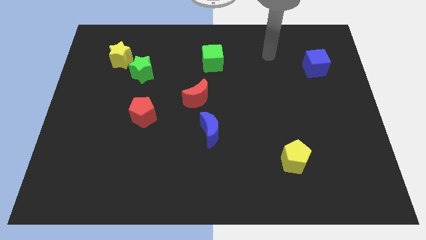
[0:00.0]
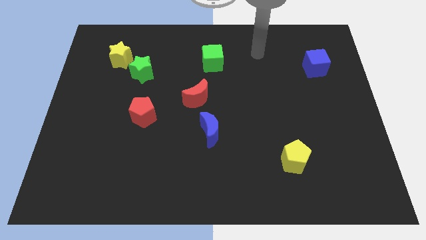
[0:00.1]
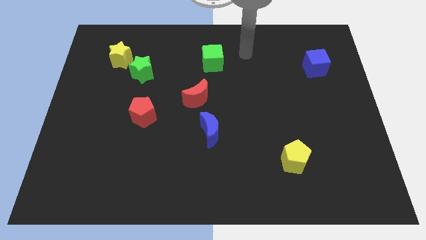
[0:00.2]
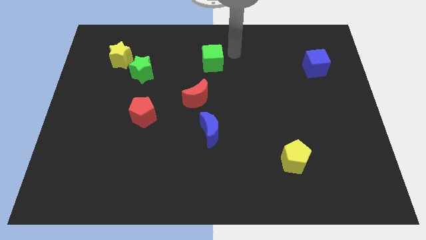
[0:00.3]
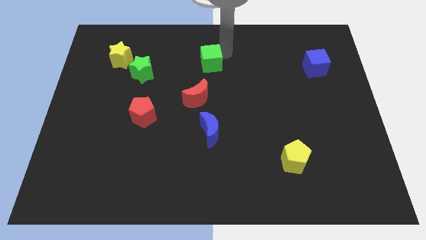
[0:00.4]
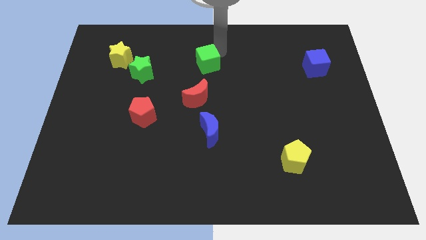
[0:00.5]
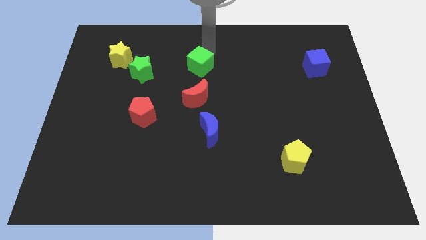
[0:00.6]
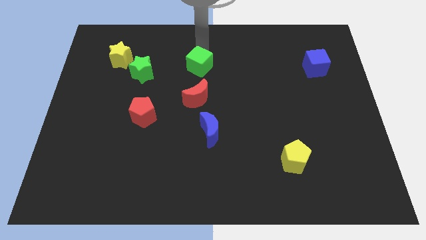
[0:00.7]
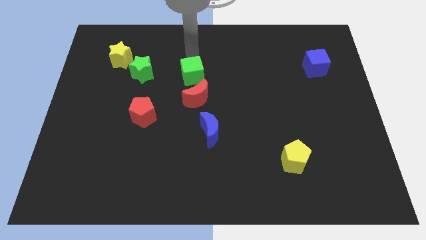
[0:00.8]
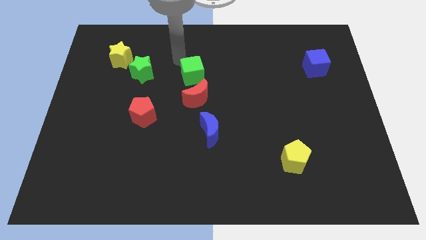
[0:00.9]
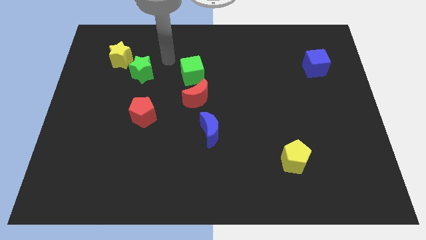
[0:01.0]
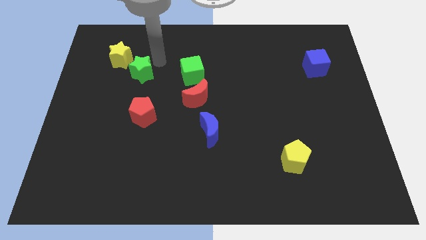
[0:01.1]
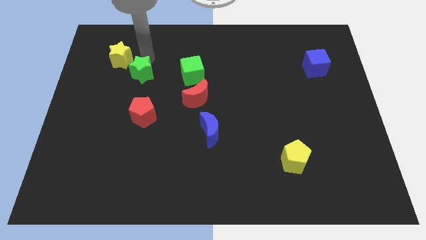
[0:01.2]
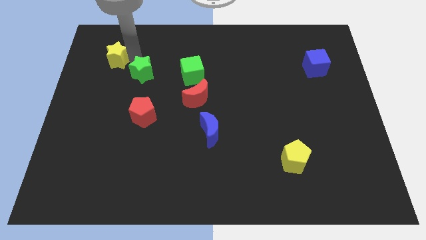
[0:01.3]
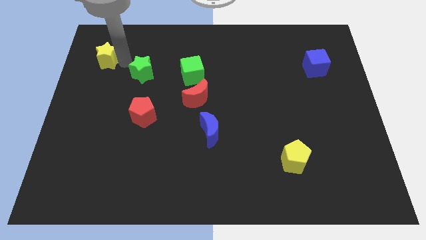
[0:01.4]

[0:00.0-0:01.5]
pull the green star apart from the yellow star

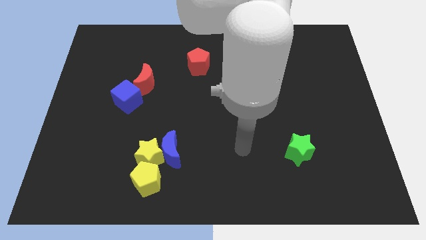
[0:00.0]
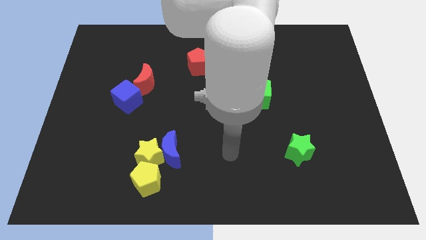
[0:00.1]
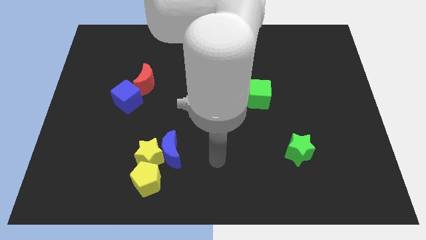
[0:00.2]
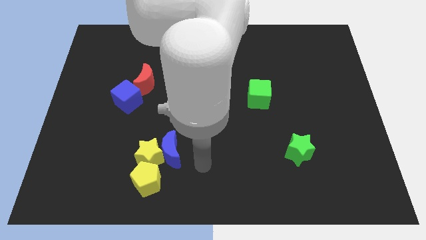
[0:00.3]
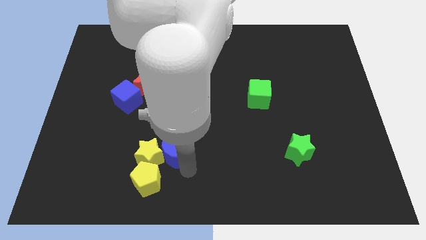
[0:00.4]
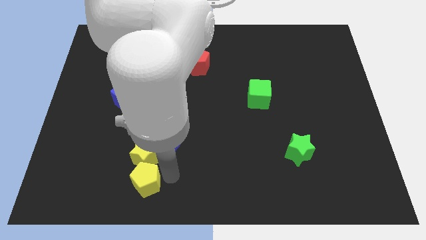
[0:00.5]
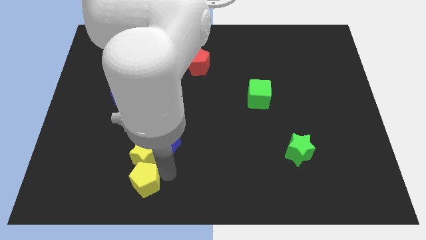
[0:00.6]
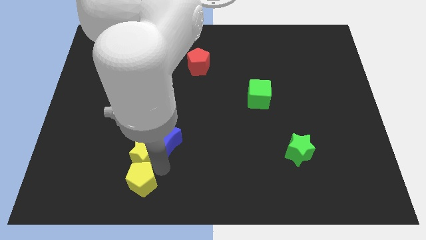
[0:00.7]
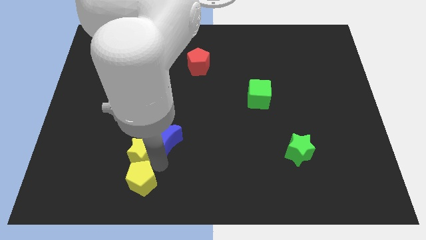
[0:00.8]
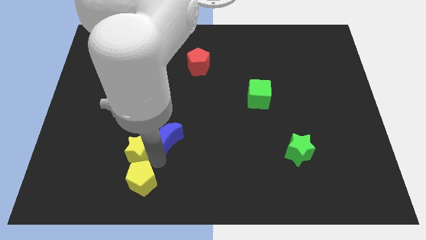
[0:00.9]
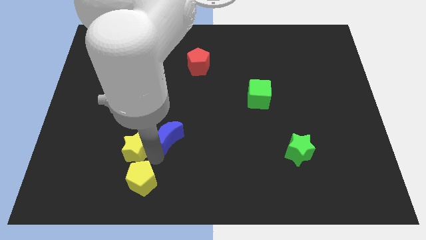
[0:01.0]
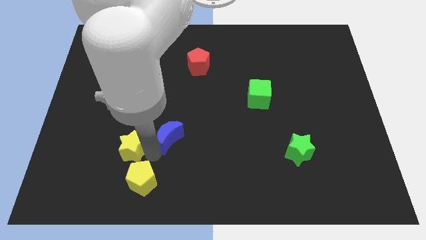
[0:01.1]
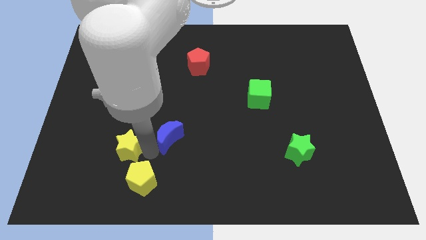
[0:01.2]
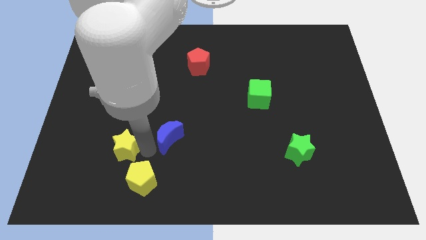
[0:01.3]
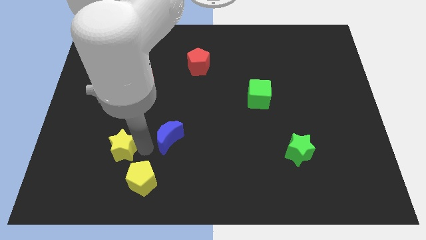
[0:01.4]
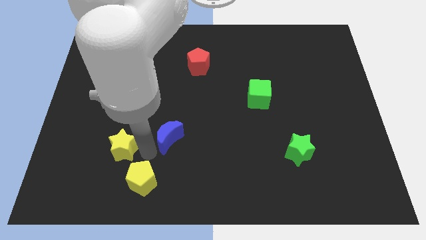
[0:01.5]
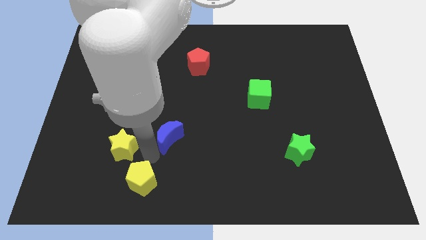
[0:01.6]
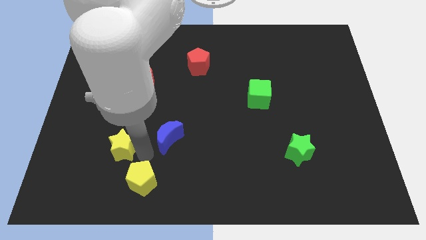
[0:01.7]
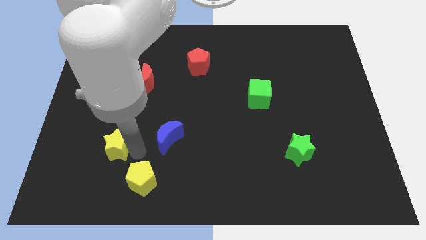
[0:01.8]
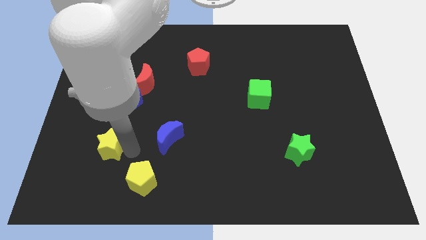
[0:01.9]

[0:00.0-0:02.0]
move the yellow star away from the blue moon and yellow pentagon

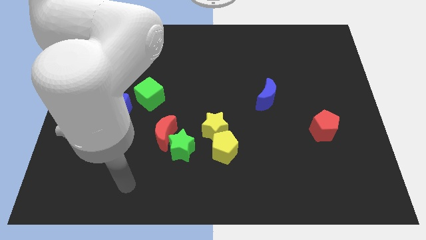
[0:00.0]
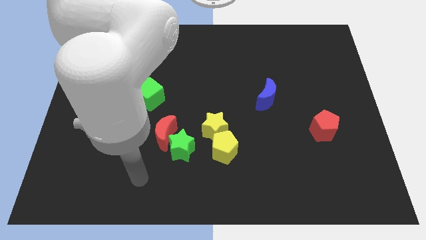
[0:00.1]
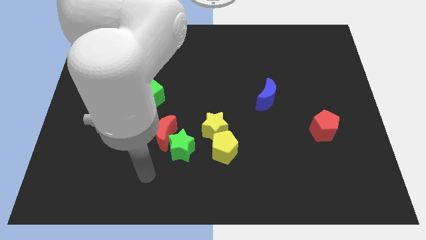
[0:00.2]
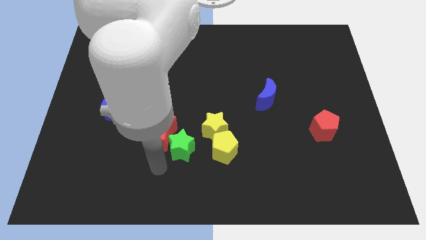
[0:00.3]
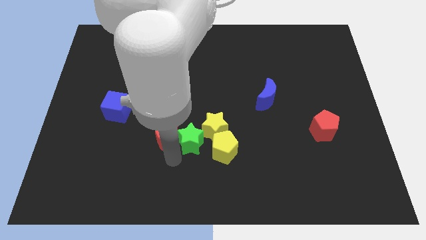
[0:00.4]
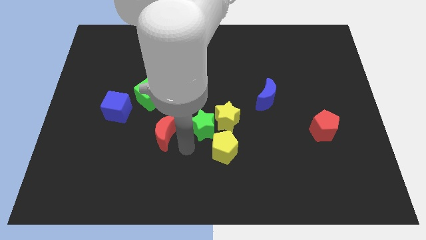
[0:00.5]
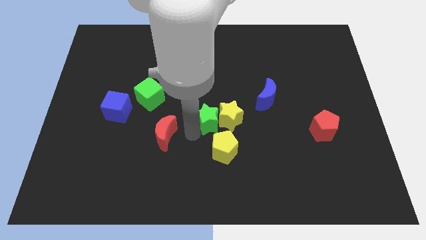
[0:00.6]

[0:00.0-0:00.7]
separate the red moon from the green star

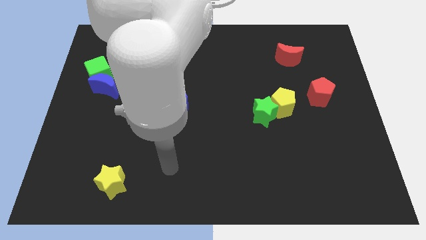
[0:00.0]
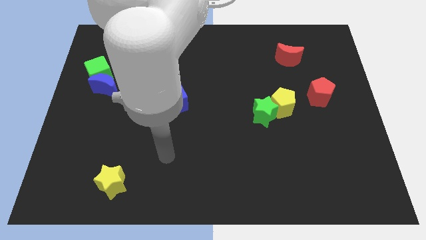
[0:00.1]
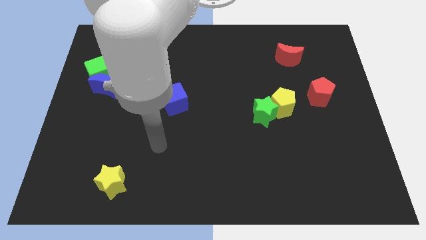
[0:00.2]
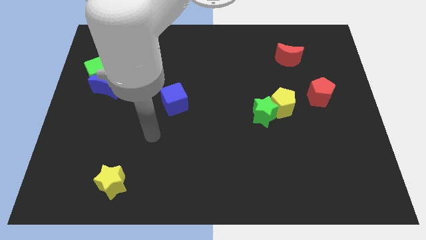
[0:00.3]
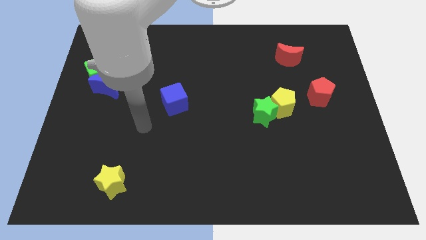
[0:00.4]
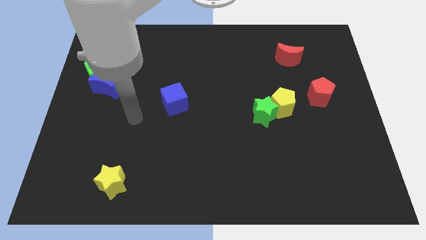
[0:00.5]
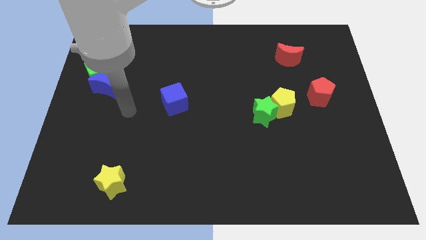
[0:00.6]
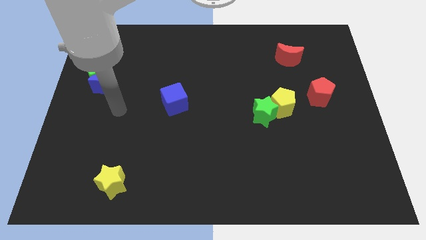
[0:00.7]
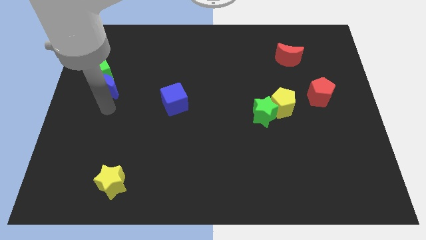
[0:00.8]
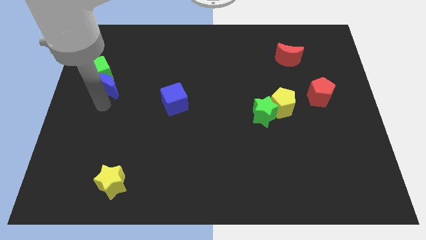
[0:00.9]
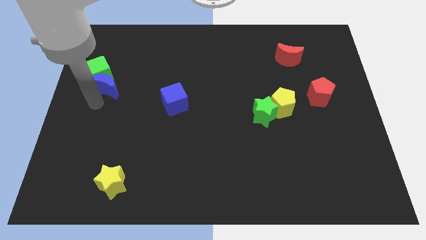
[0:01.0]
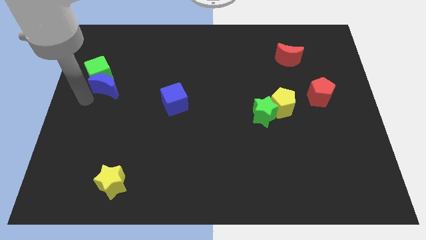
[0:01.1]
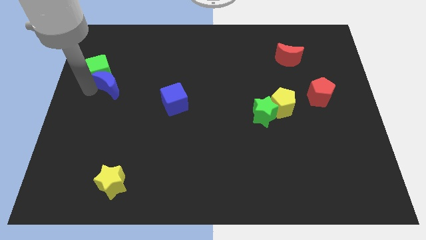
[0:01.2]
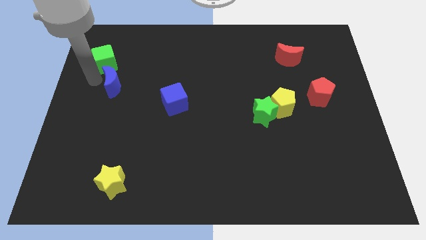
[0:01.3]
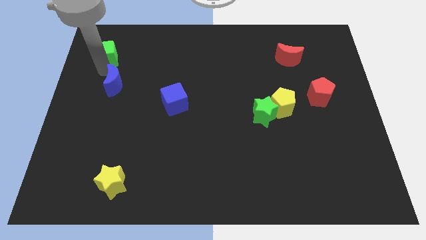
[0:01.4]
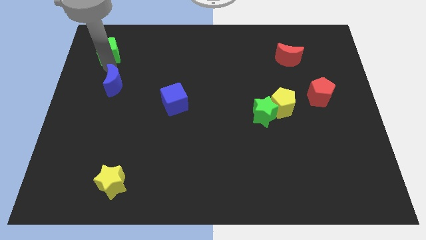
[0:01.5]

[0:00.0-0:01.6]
move the blue moon away from the green cube

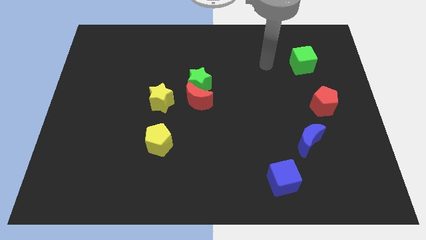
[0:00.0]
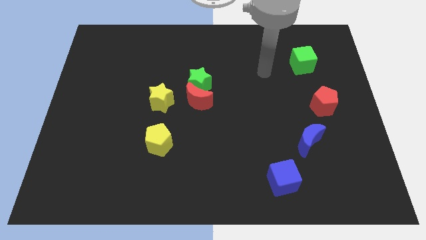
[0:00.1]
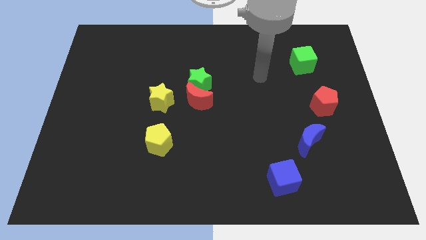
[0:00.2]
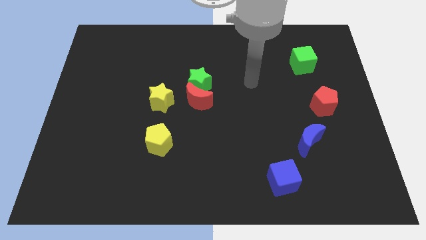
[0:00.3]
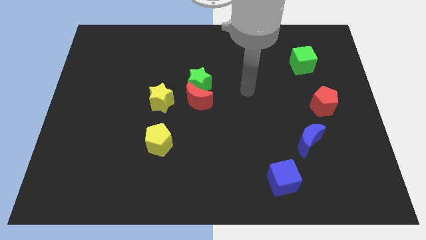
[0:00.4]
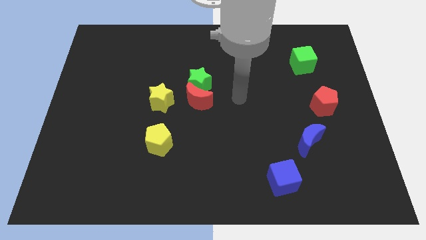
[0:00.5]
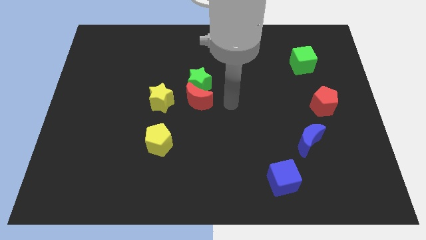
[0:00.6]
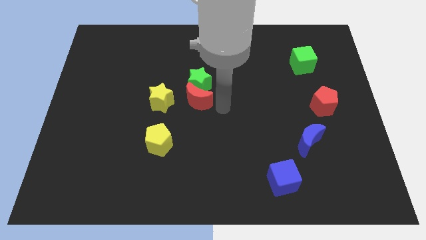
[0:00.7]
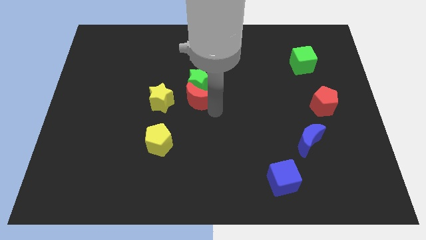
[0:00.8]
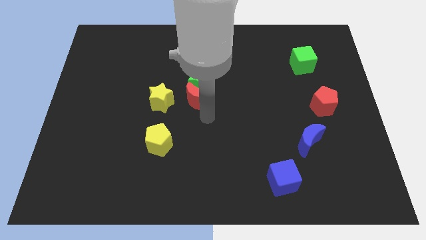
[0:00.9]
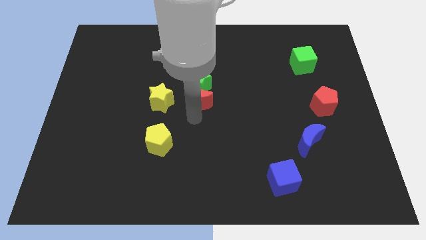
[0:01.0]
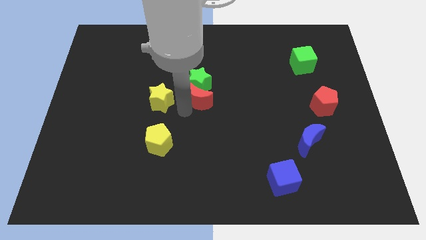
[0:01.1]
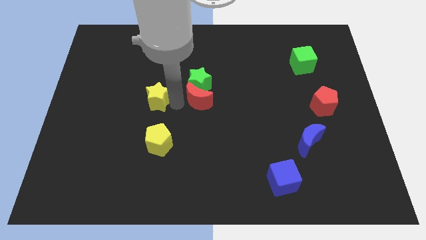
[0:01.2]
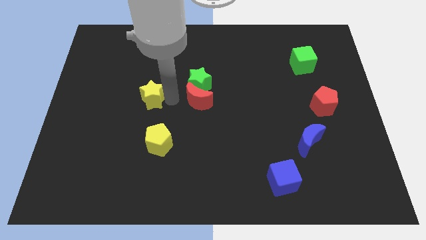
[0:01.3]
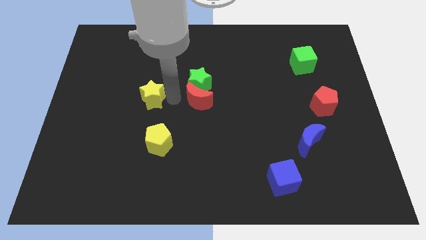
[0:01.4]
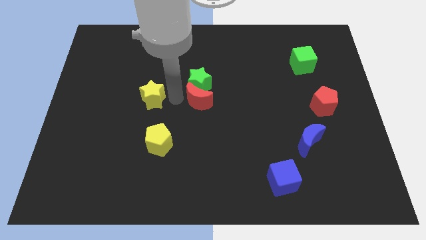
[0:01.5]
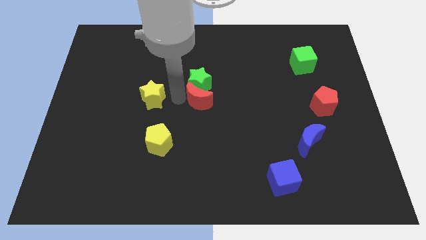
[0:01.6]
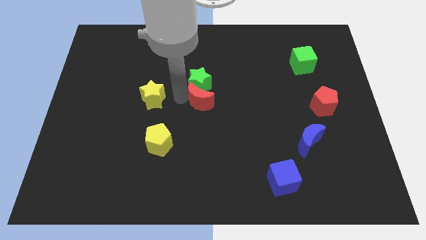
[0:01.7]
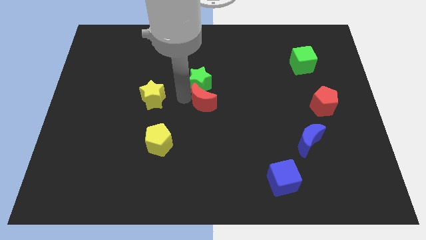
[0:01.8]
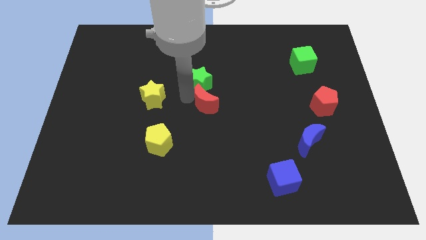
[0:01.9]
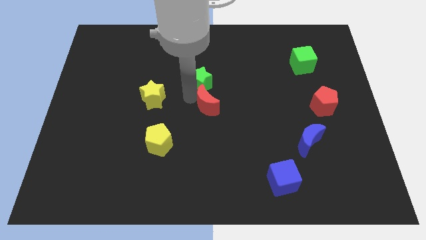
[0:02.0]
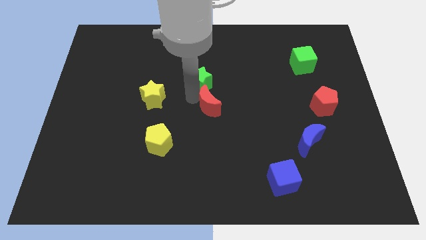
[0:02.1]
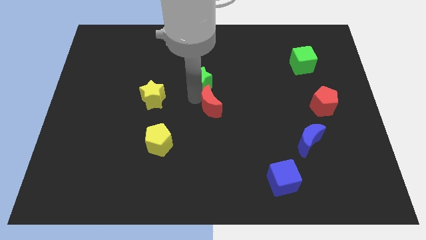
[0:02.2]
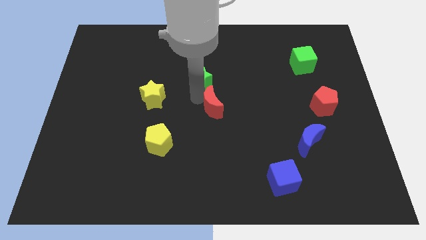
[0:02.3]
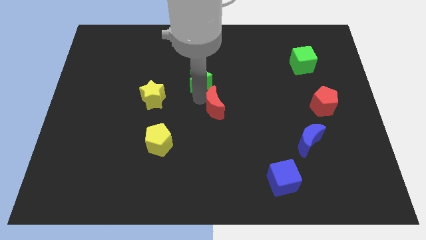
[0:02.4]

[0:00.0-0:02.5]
move the red moon away from the green star and yellow star

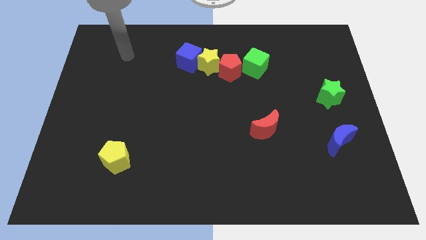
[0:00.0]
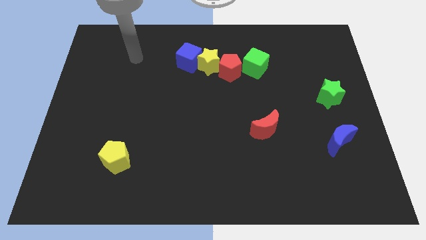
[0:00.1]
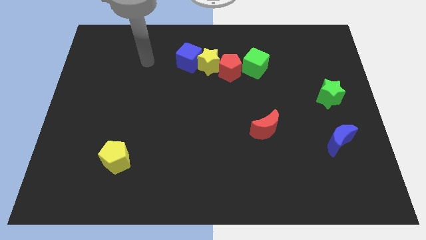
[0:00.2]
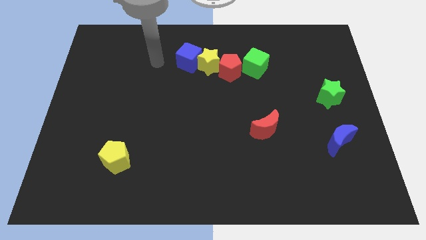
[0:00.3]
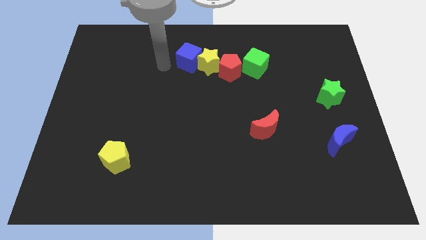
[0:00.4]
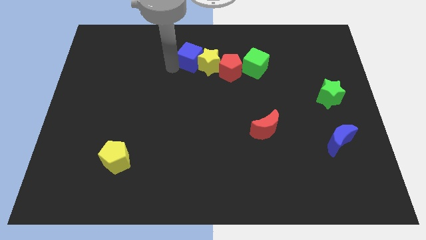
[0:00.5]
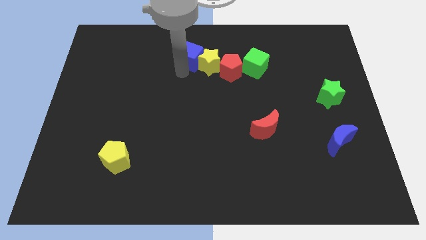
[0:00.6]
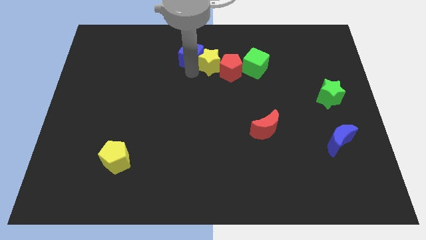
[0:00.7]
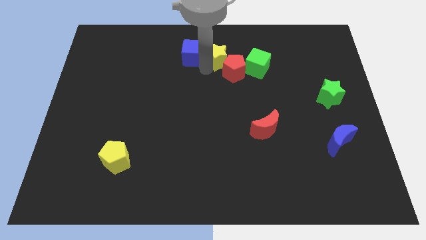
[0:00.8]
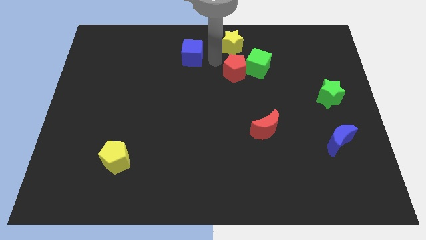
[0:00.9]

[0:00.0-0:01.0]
move the blue cube away from the yellow star
